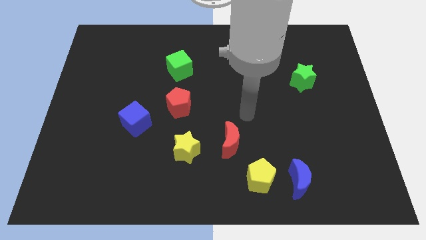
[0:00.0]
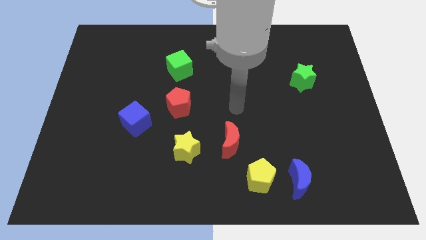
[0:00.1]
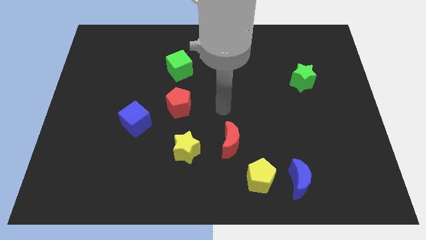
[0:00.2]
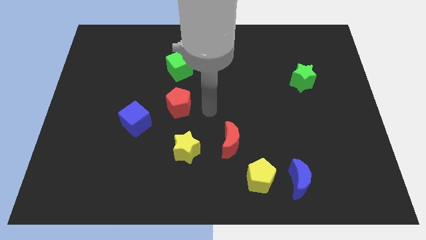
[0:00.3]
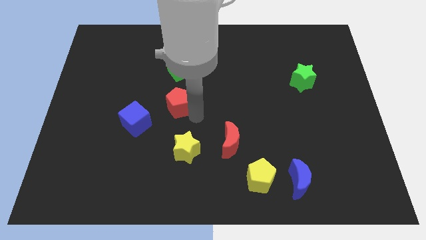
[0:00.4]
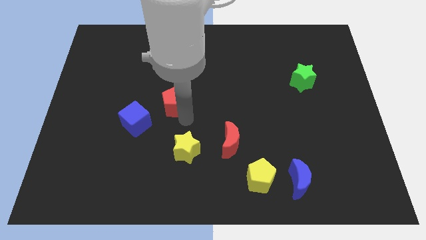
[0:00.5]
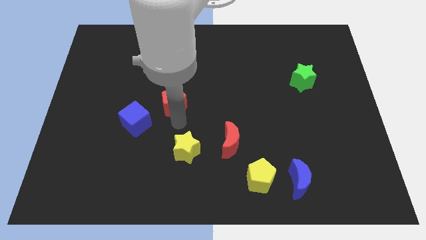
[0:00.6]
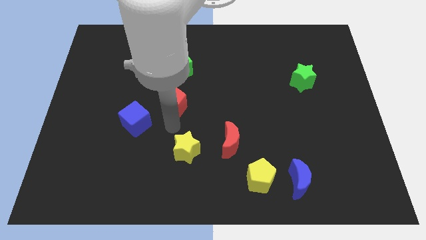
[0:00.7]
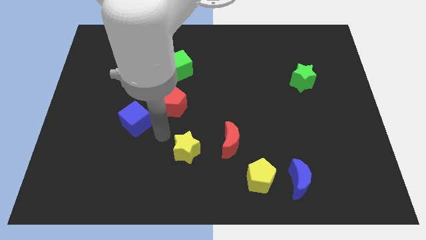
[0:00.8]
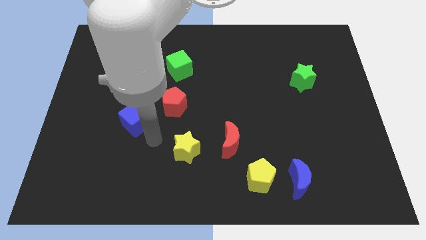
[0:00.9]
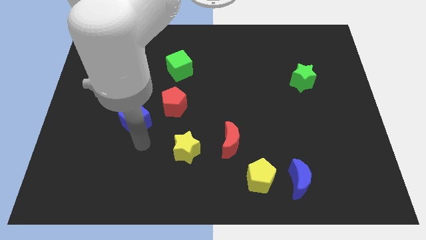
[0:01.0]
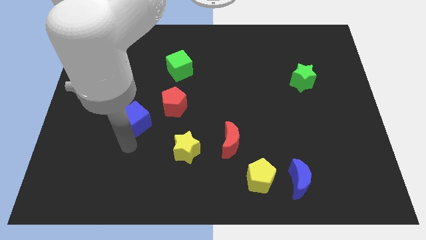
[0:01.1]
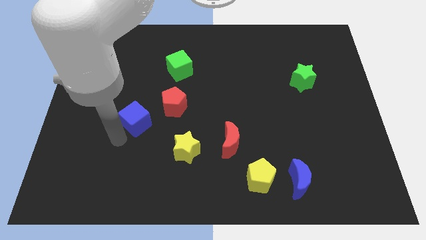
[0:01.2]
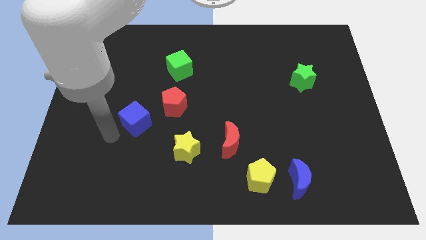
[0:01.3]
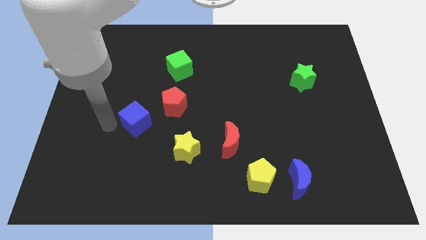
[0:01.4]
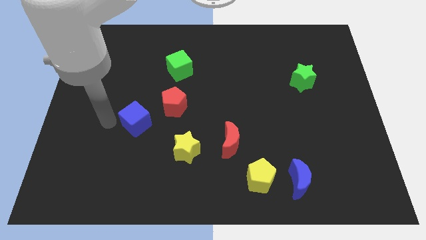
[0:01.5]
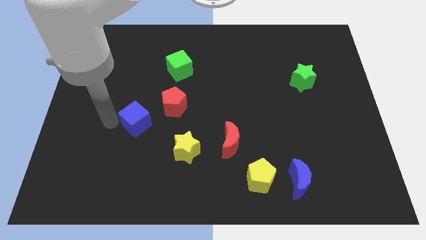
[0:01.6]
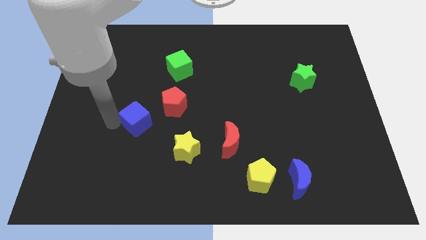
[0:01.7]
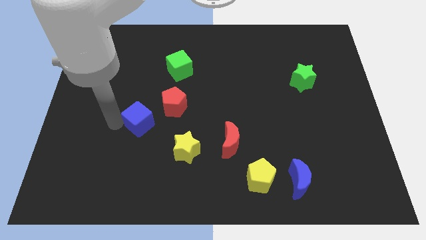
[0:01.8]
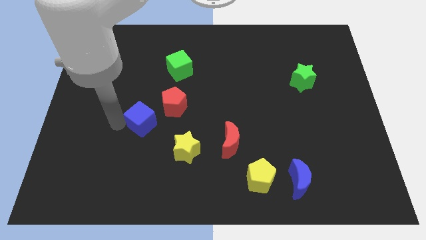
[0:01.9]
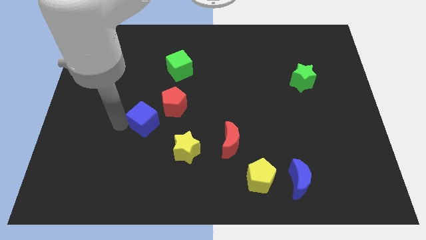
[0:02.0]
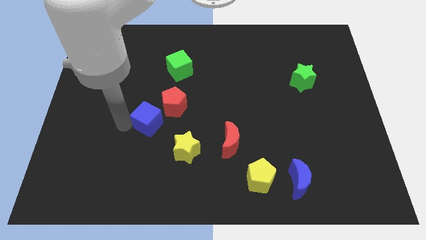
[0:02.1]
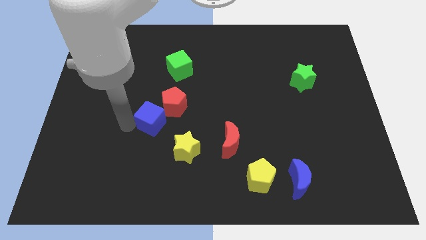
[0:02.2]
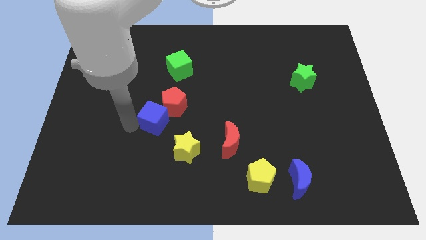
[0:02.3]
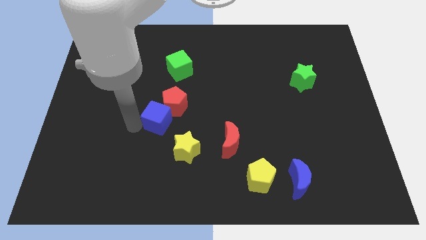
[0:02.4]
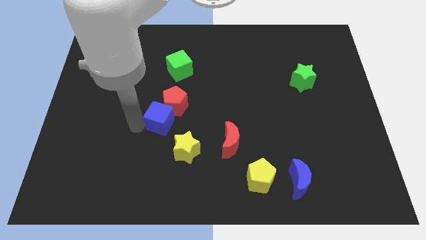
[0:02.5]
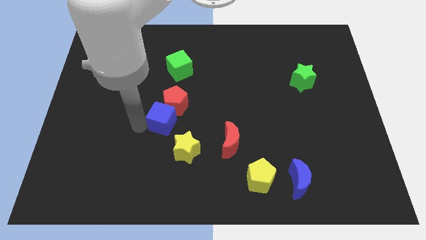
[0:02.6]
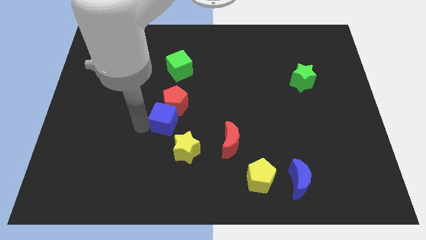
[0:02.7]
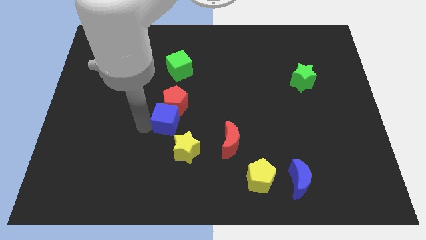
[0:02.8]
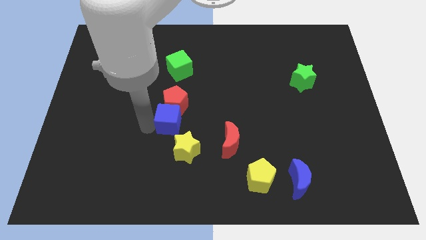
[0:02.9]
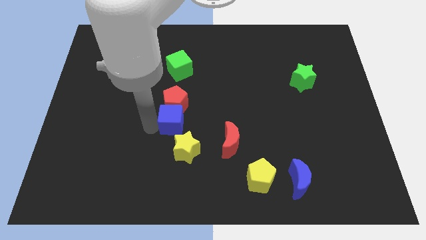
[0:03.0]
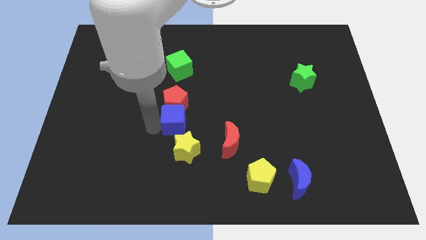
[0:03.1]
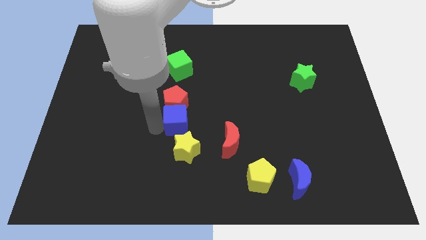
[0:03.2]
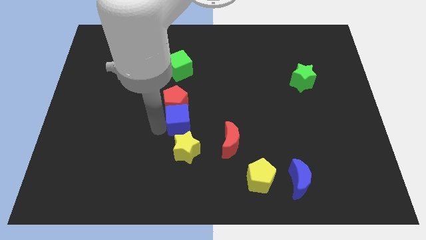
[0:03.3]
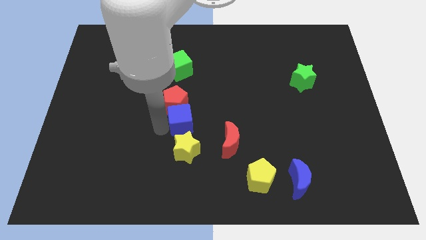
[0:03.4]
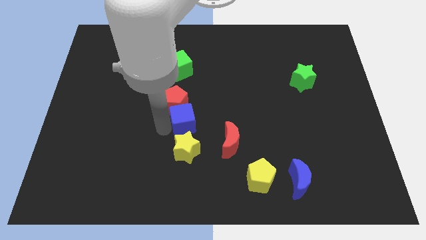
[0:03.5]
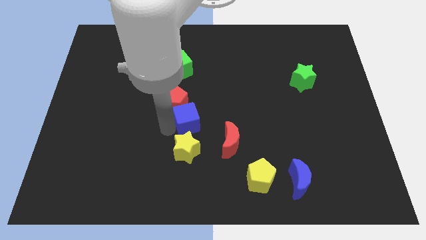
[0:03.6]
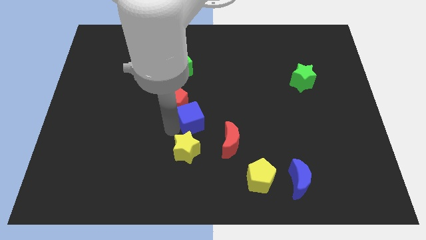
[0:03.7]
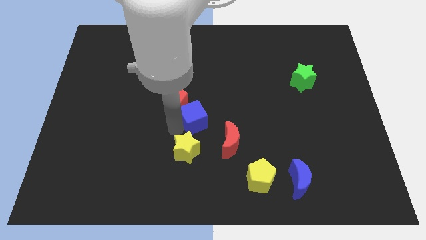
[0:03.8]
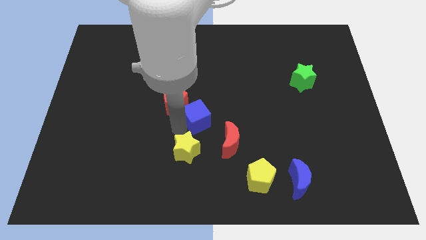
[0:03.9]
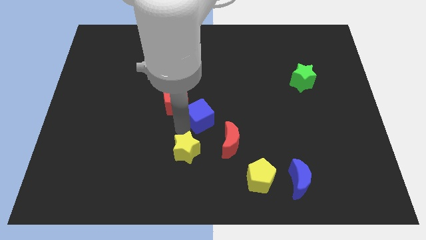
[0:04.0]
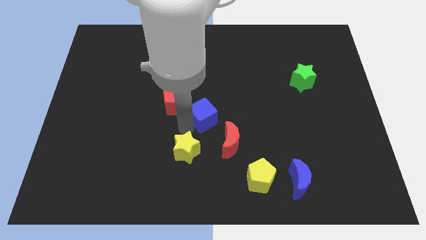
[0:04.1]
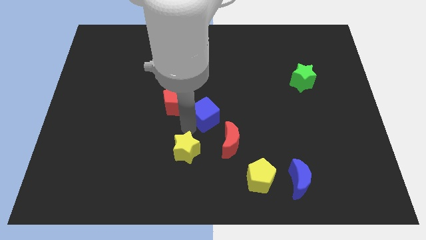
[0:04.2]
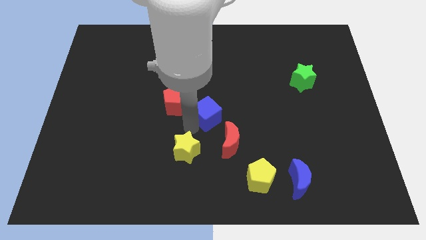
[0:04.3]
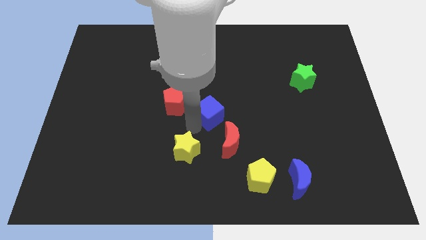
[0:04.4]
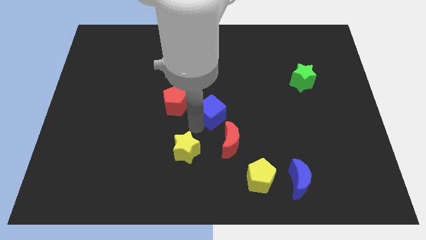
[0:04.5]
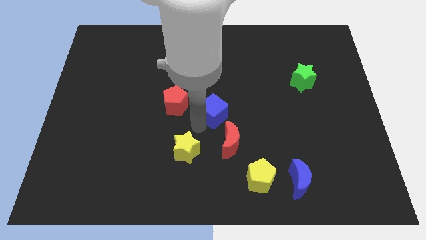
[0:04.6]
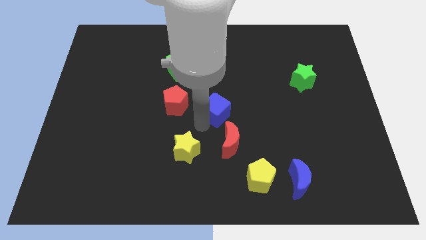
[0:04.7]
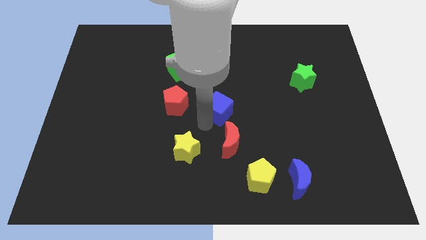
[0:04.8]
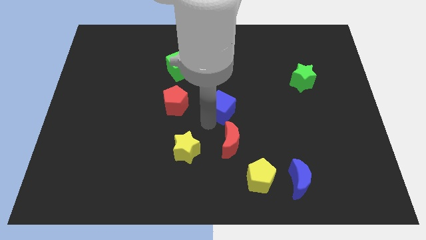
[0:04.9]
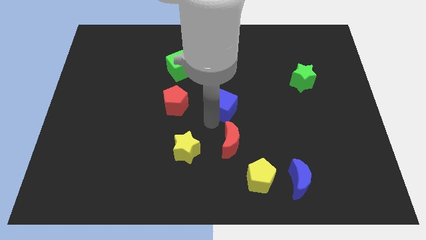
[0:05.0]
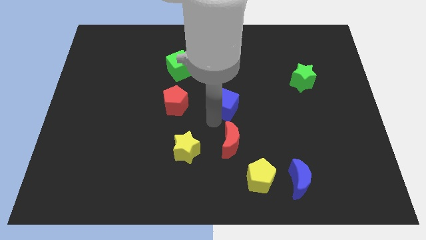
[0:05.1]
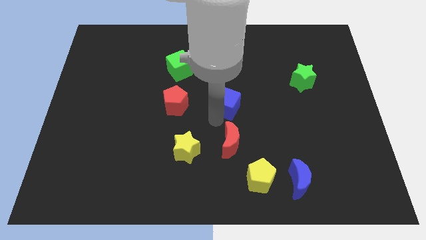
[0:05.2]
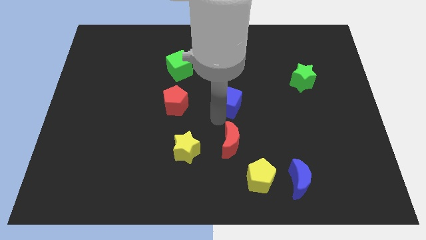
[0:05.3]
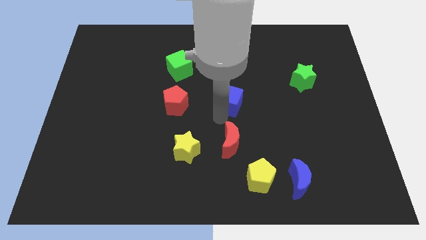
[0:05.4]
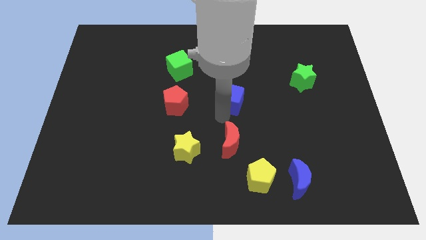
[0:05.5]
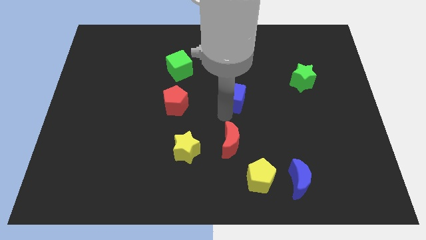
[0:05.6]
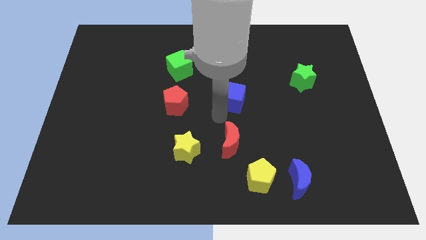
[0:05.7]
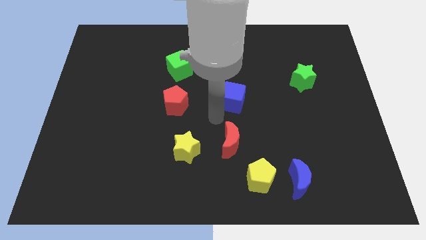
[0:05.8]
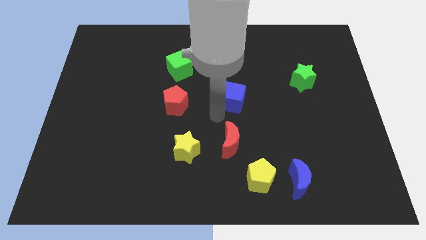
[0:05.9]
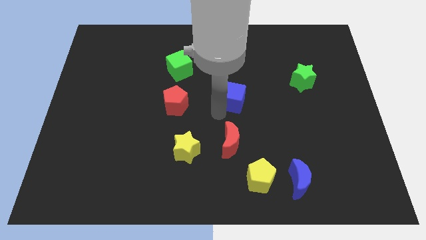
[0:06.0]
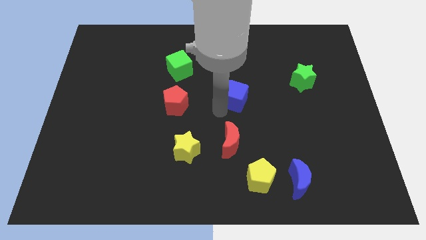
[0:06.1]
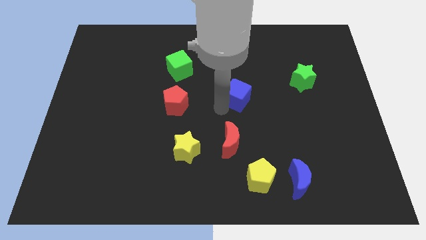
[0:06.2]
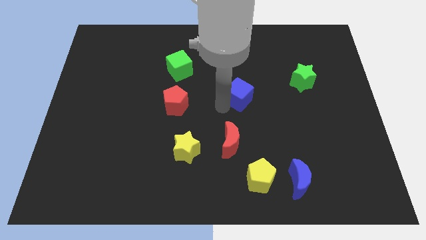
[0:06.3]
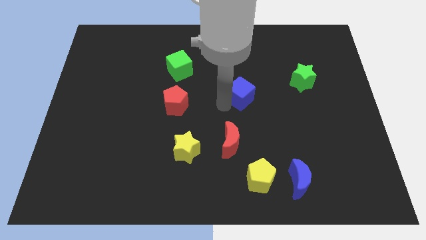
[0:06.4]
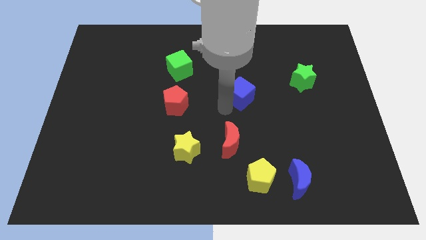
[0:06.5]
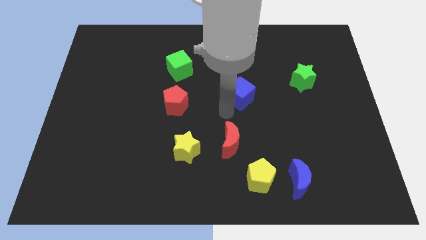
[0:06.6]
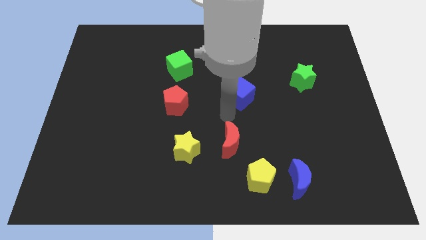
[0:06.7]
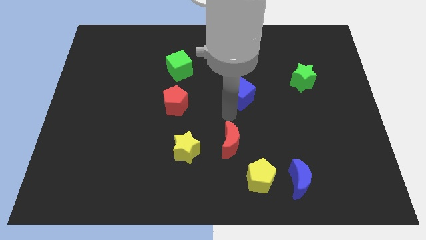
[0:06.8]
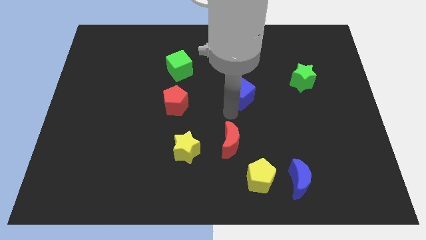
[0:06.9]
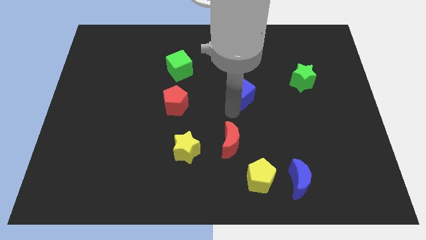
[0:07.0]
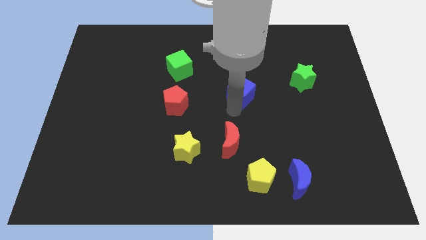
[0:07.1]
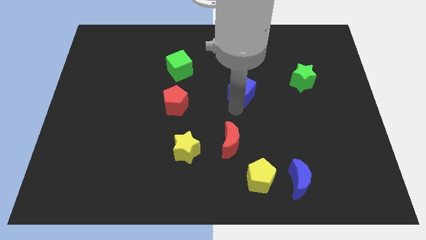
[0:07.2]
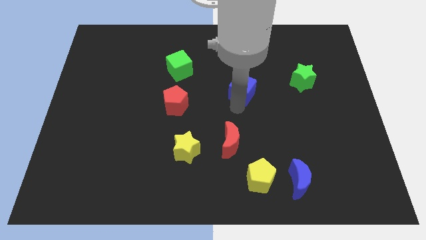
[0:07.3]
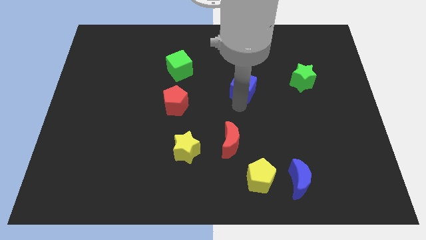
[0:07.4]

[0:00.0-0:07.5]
move the blue cube just left of the green star

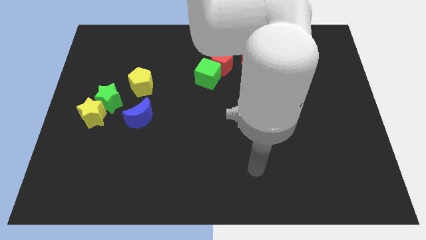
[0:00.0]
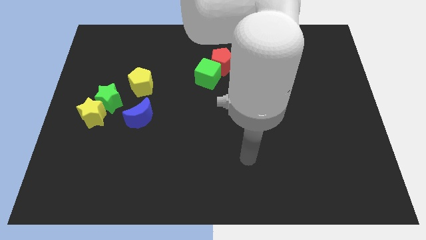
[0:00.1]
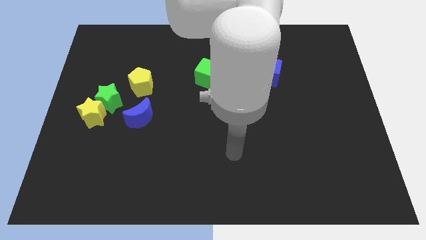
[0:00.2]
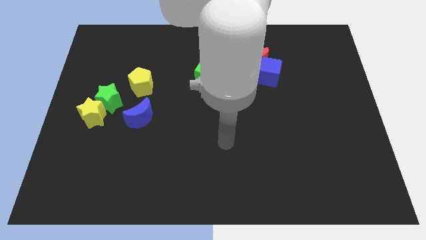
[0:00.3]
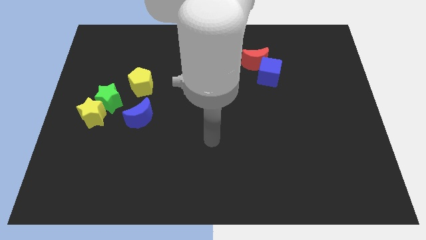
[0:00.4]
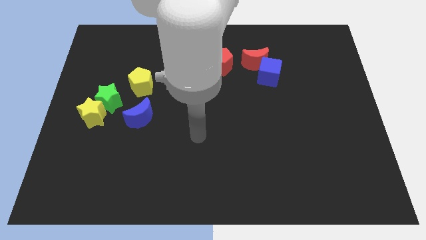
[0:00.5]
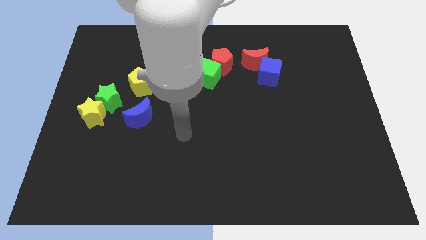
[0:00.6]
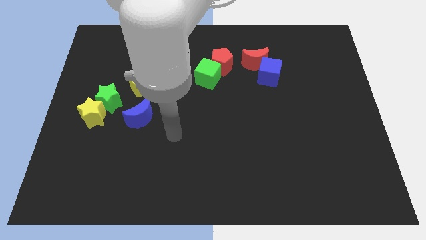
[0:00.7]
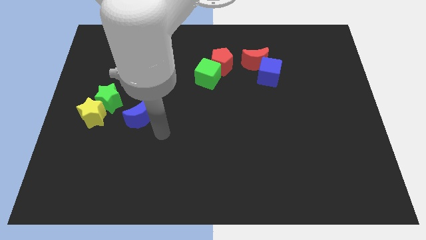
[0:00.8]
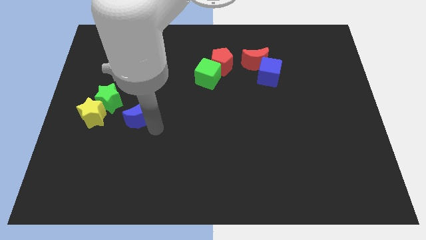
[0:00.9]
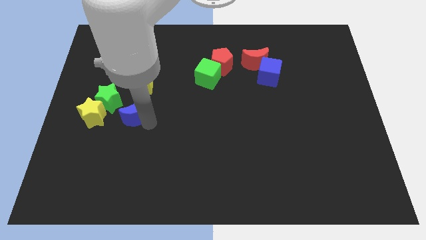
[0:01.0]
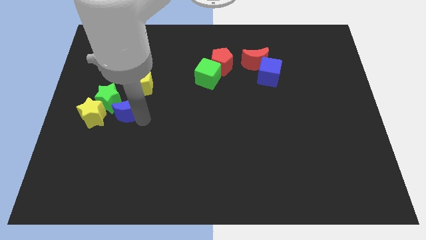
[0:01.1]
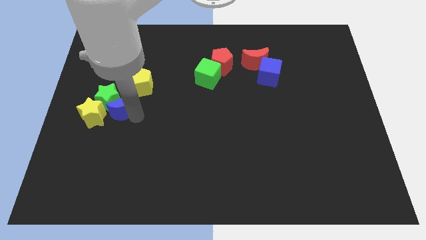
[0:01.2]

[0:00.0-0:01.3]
push the blue moon diagonally up and to the right of the yellow star
